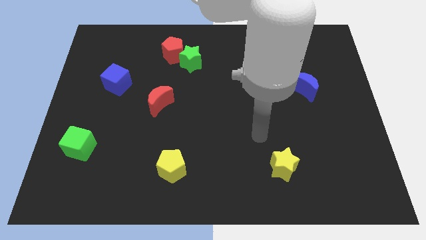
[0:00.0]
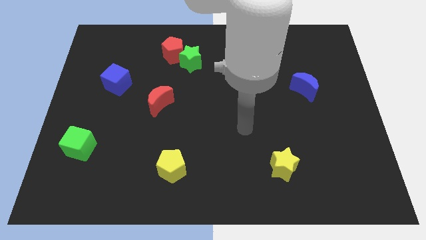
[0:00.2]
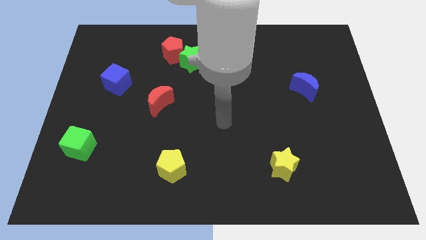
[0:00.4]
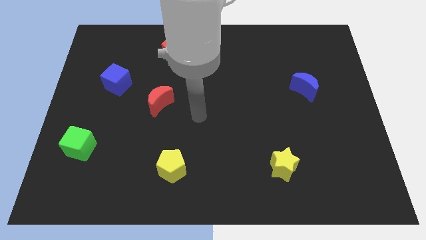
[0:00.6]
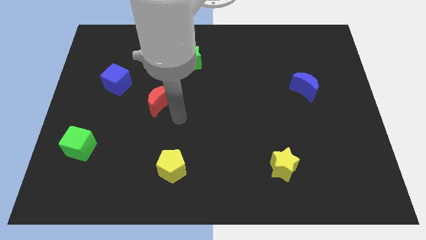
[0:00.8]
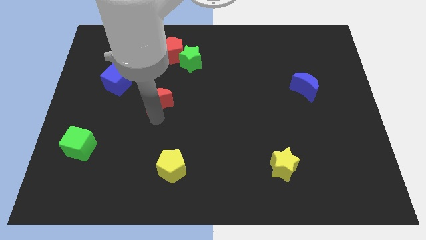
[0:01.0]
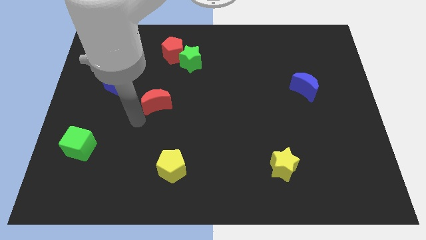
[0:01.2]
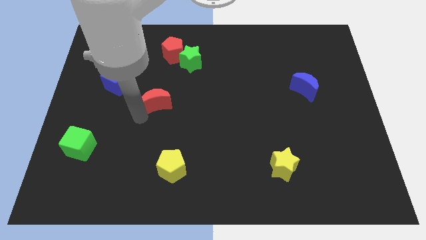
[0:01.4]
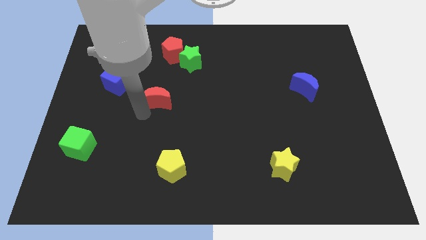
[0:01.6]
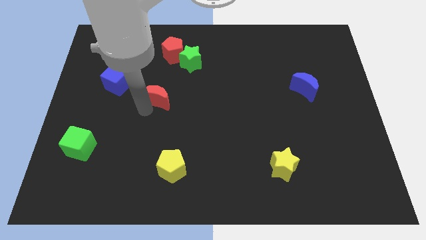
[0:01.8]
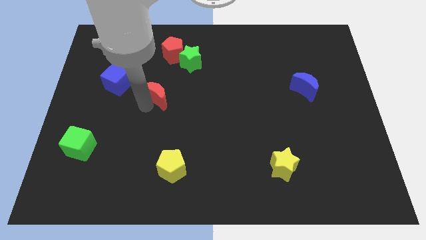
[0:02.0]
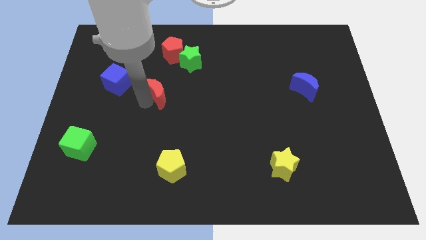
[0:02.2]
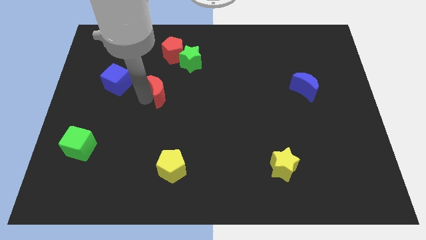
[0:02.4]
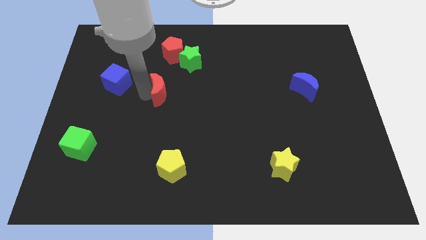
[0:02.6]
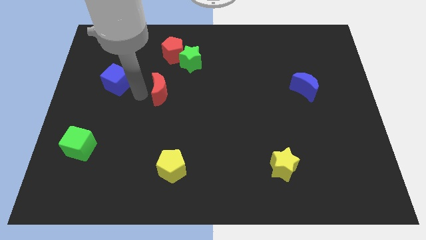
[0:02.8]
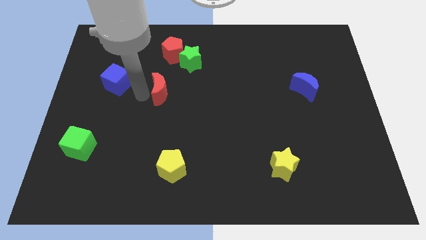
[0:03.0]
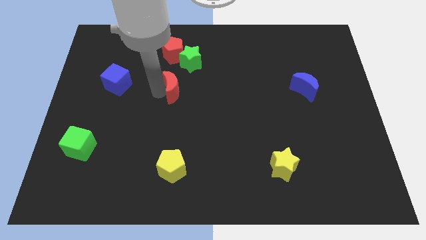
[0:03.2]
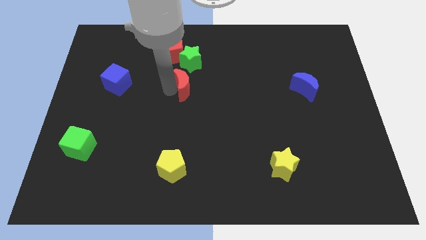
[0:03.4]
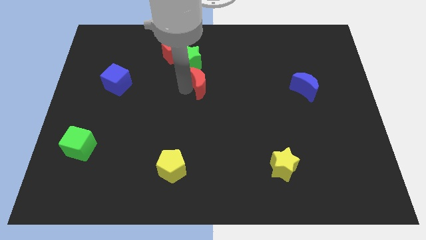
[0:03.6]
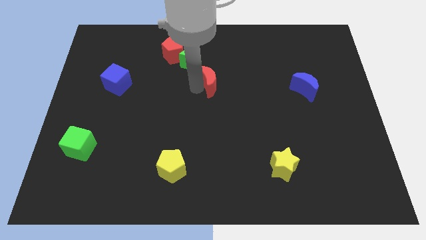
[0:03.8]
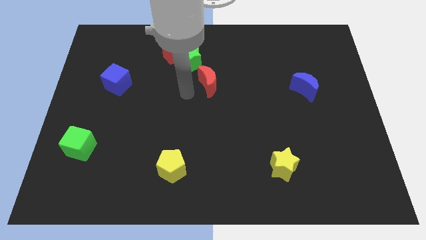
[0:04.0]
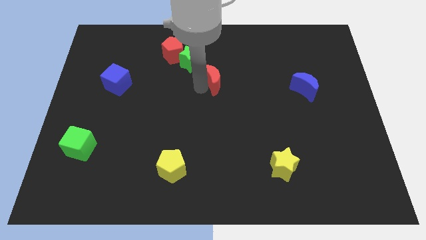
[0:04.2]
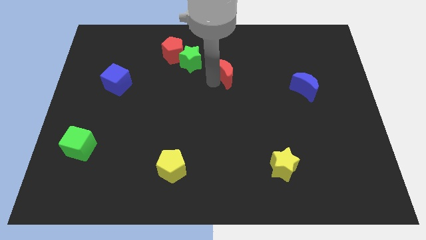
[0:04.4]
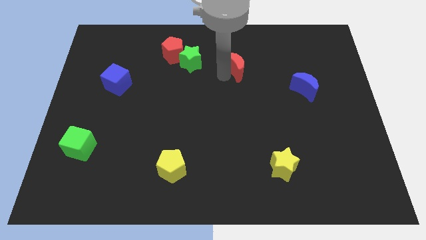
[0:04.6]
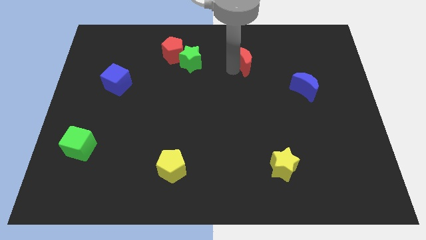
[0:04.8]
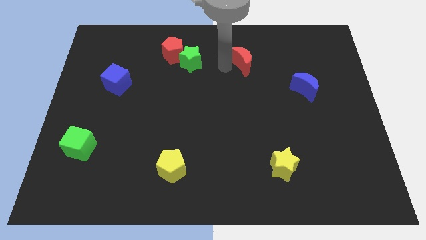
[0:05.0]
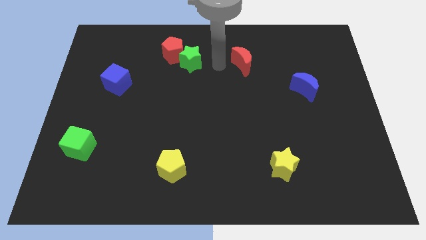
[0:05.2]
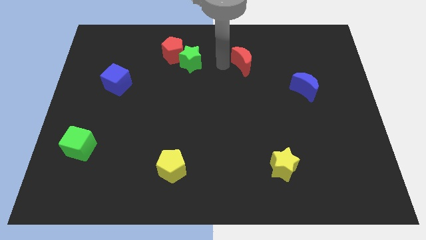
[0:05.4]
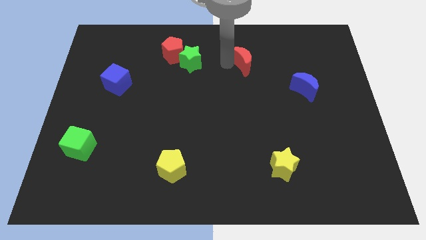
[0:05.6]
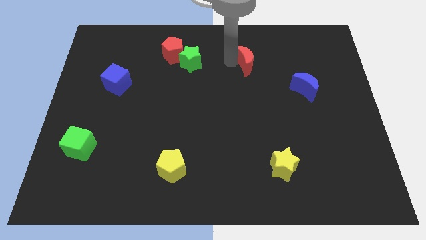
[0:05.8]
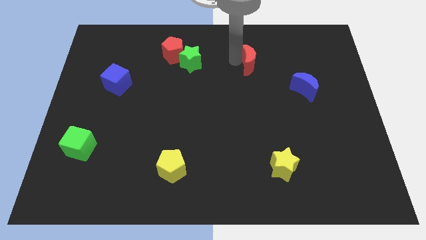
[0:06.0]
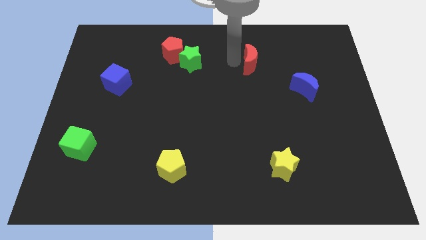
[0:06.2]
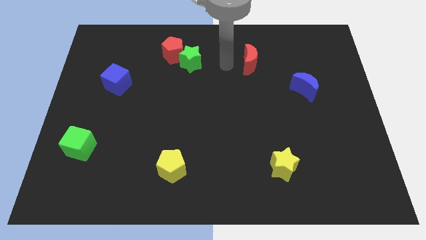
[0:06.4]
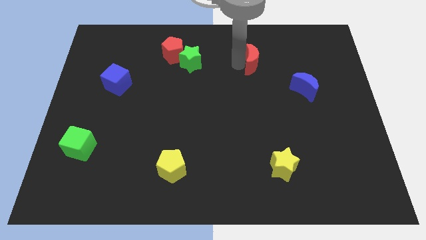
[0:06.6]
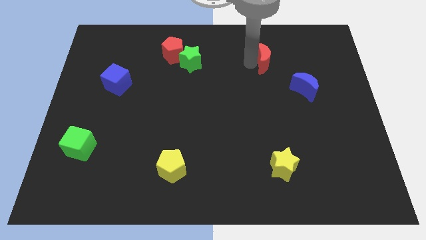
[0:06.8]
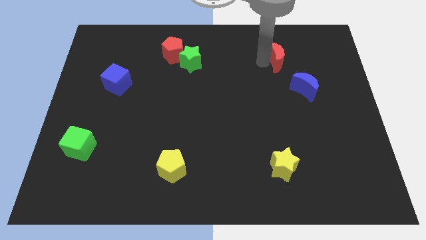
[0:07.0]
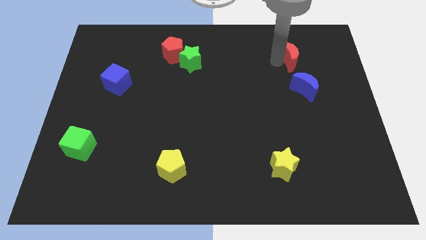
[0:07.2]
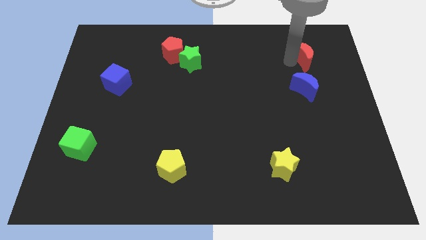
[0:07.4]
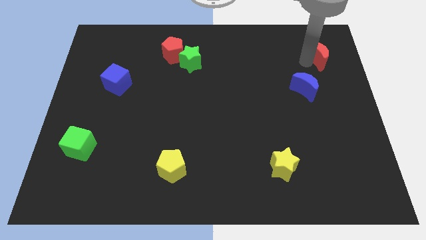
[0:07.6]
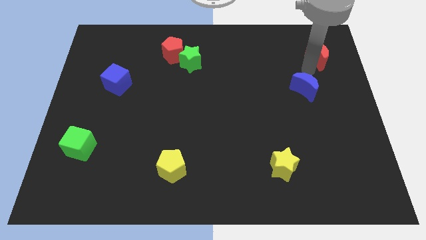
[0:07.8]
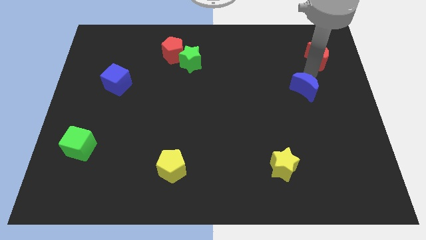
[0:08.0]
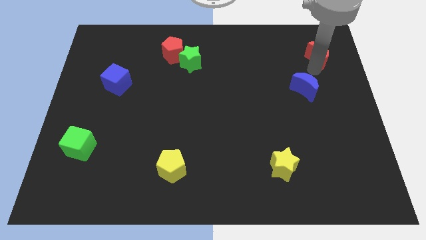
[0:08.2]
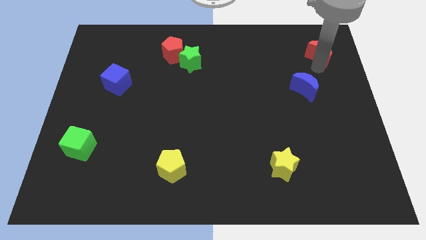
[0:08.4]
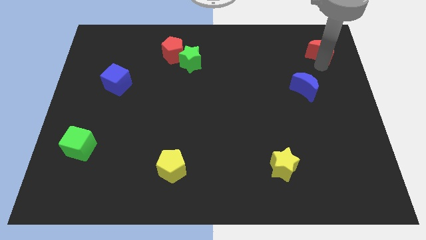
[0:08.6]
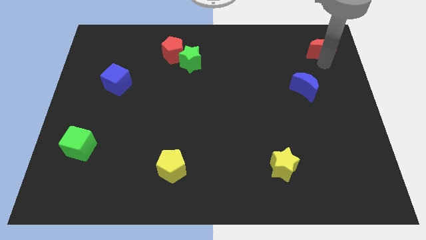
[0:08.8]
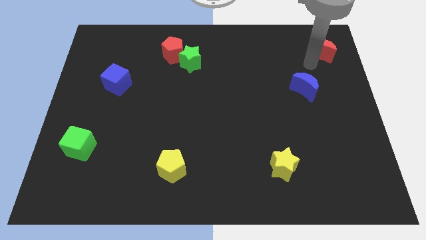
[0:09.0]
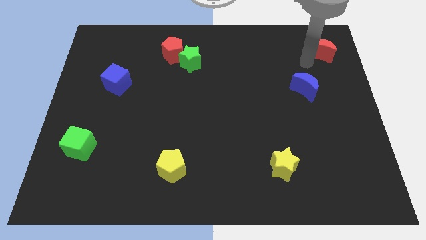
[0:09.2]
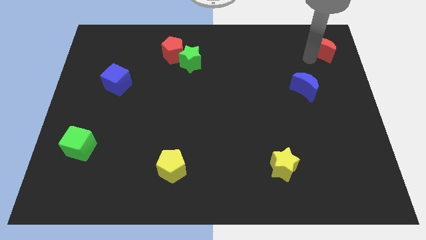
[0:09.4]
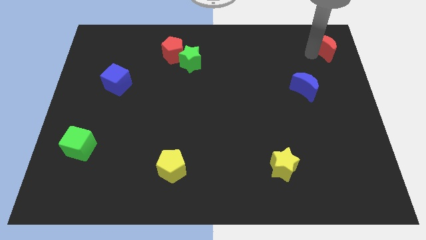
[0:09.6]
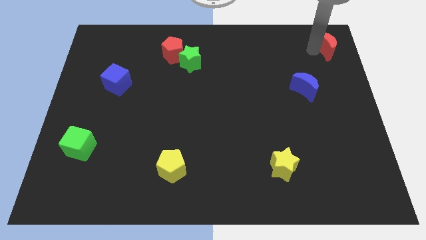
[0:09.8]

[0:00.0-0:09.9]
move the red moon to the upper right corner

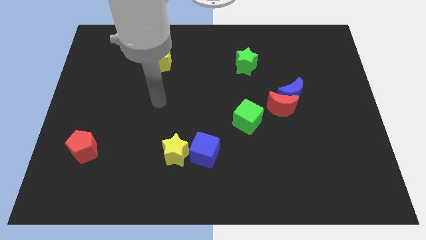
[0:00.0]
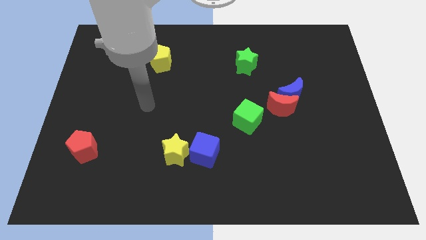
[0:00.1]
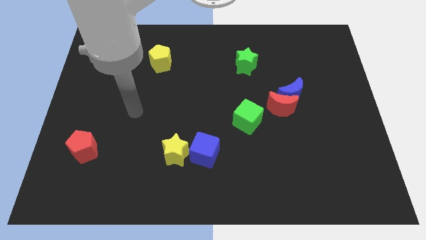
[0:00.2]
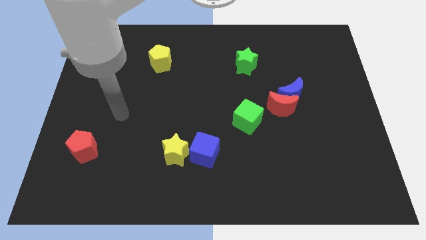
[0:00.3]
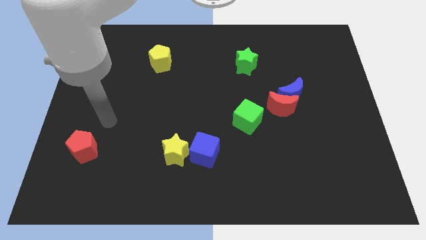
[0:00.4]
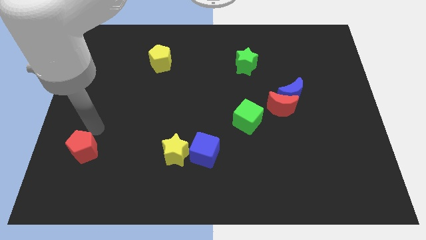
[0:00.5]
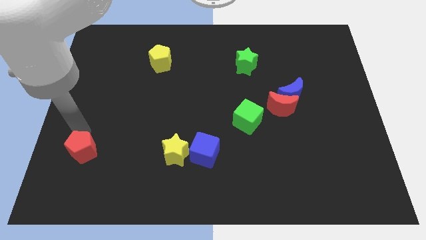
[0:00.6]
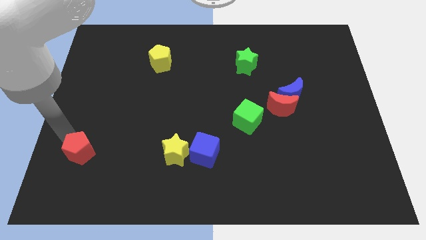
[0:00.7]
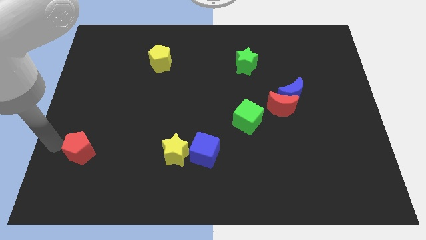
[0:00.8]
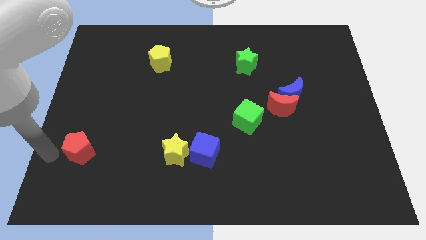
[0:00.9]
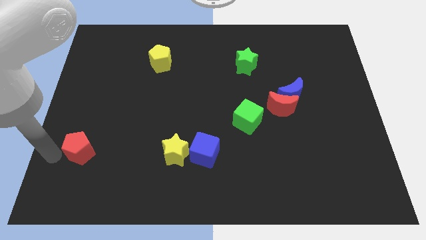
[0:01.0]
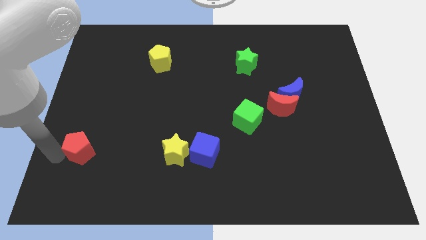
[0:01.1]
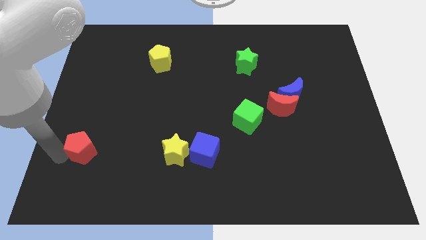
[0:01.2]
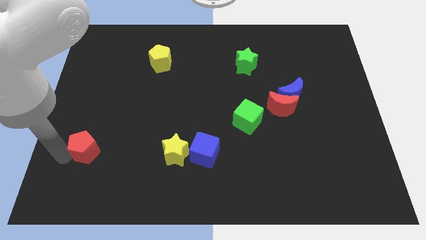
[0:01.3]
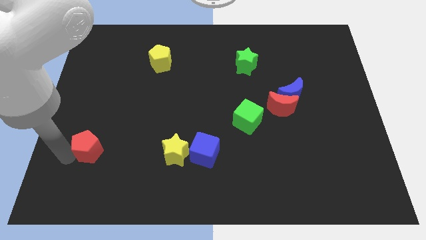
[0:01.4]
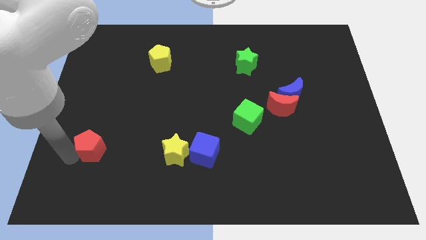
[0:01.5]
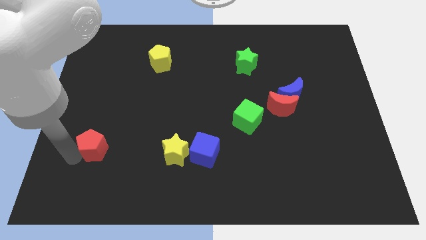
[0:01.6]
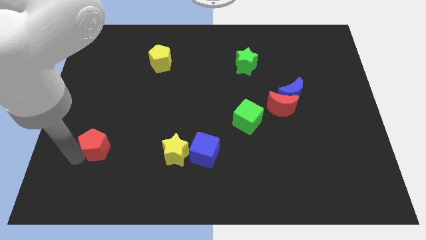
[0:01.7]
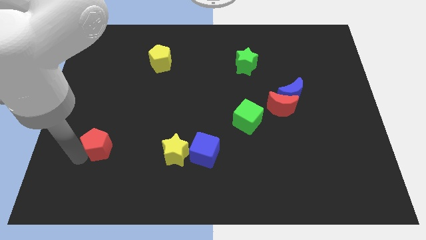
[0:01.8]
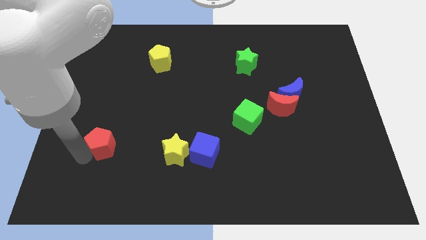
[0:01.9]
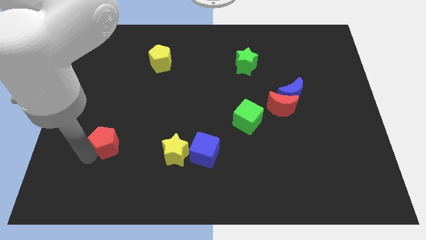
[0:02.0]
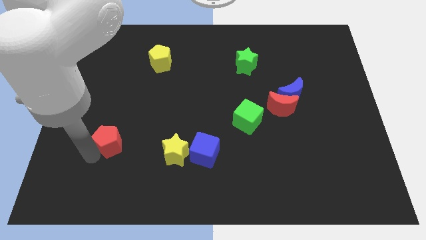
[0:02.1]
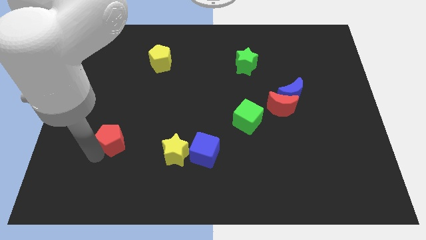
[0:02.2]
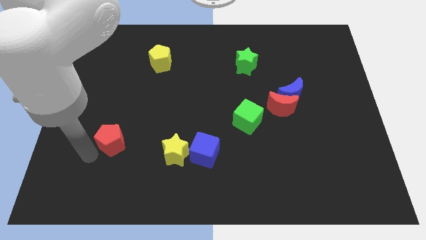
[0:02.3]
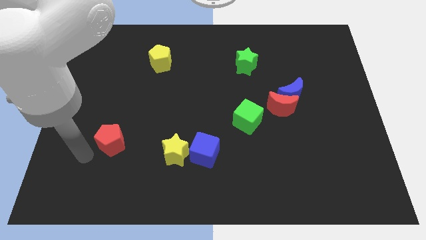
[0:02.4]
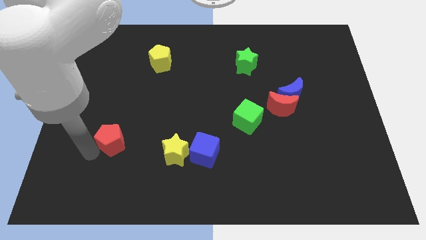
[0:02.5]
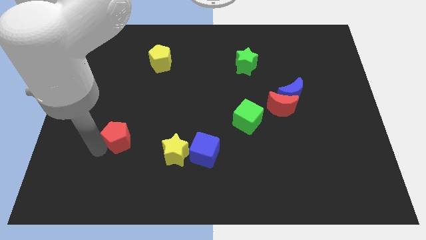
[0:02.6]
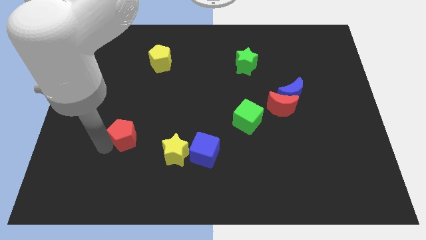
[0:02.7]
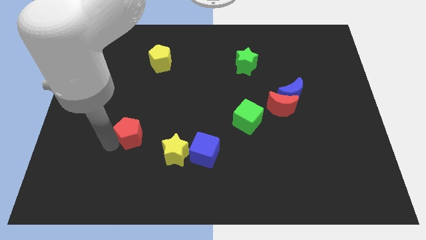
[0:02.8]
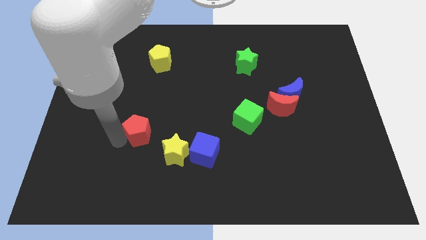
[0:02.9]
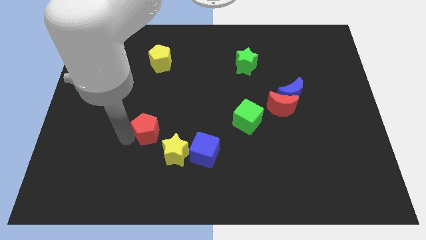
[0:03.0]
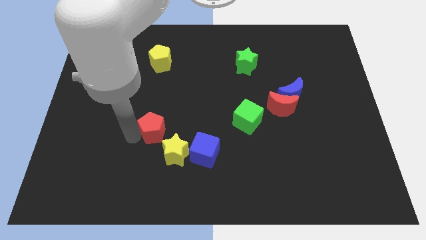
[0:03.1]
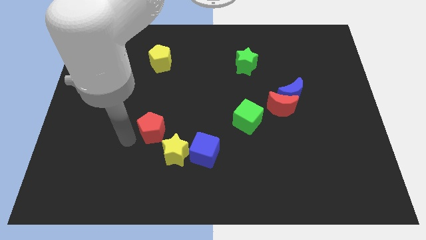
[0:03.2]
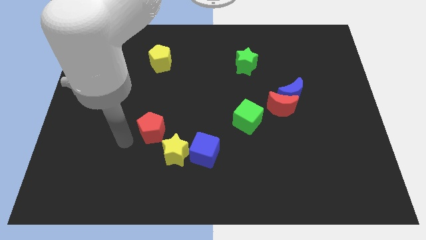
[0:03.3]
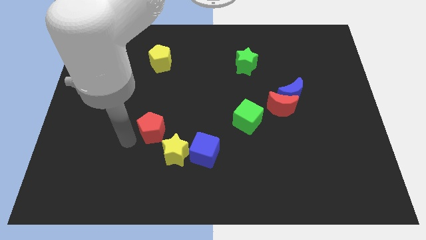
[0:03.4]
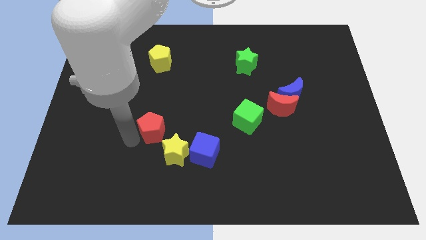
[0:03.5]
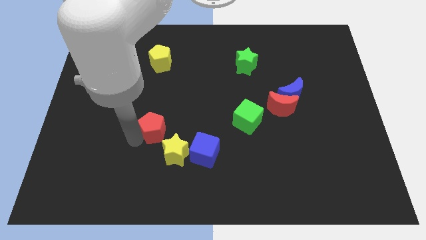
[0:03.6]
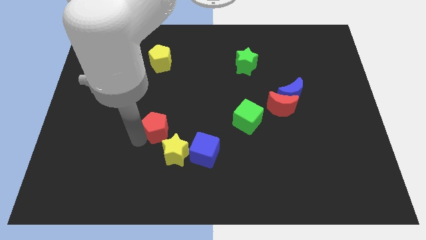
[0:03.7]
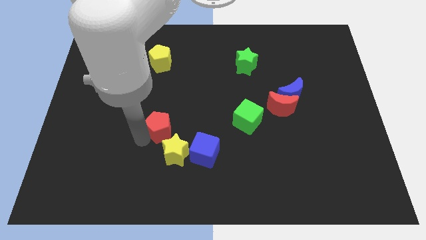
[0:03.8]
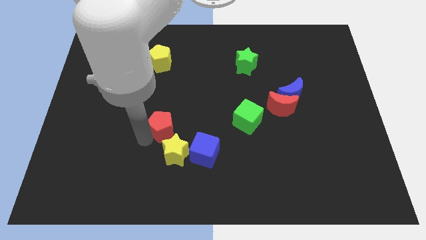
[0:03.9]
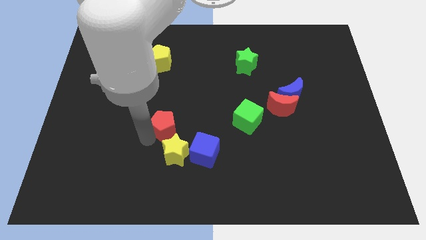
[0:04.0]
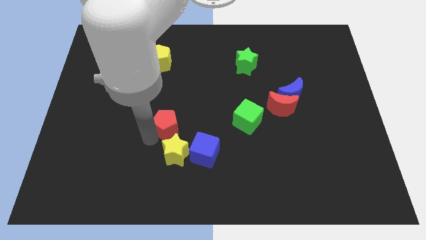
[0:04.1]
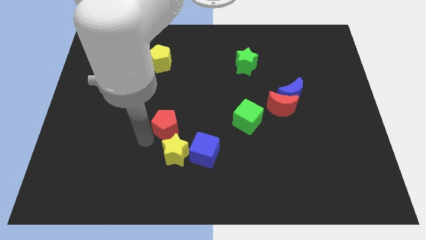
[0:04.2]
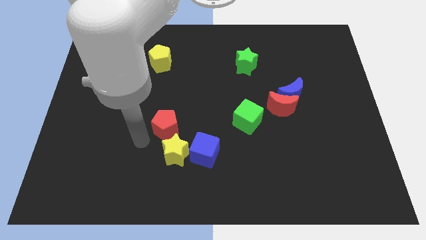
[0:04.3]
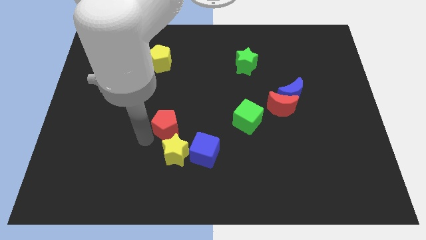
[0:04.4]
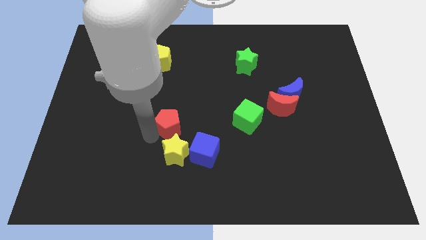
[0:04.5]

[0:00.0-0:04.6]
slide the red pentagon to the middle of the board
